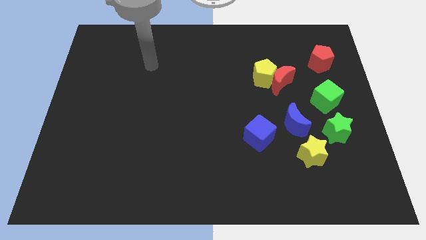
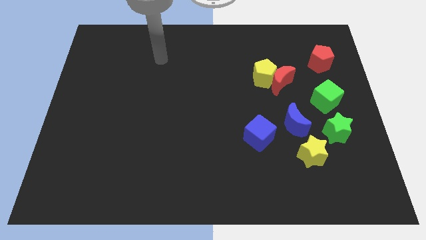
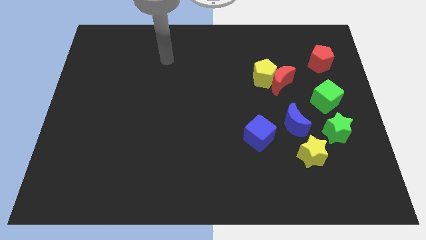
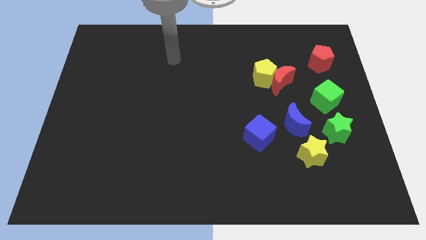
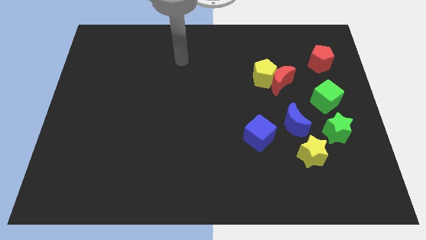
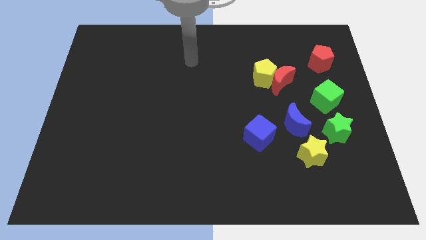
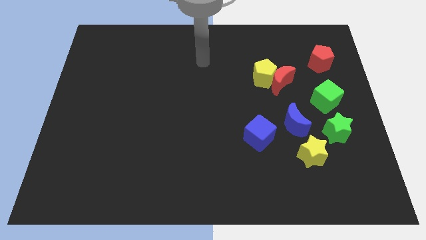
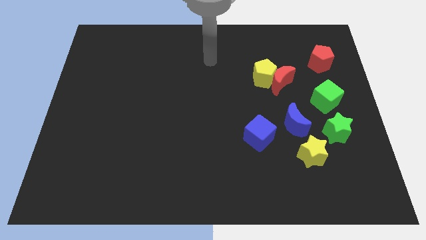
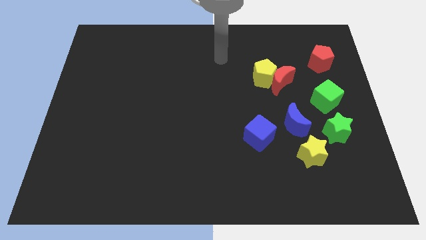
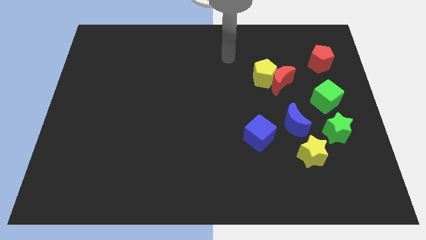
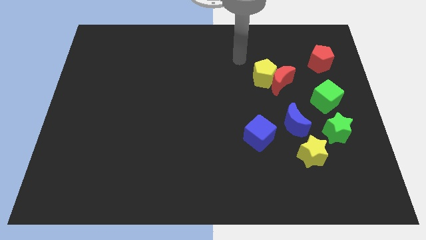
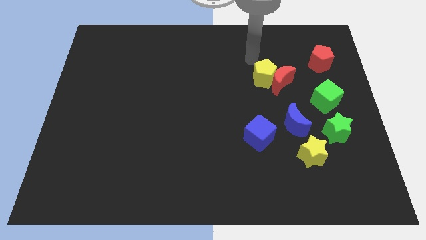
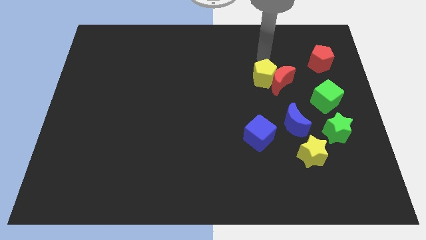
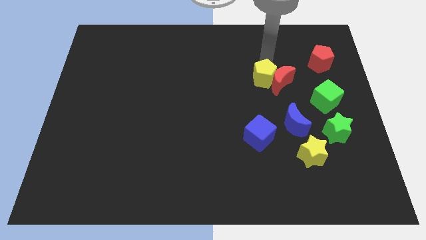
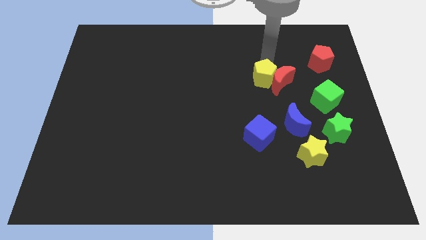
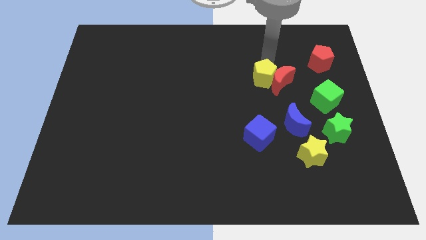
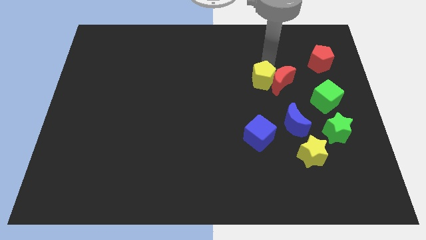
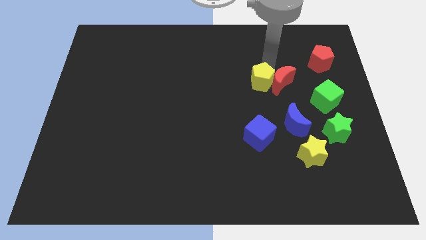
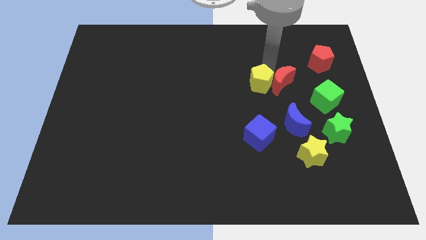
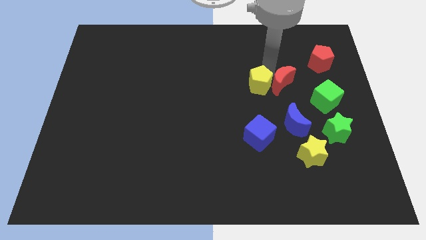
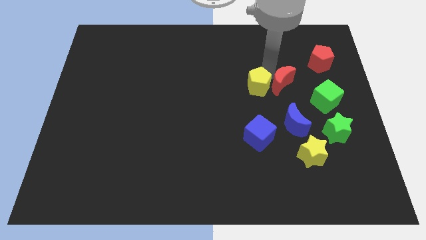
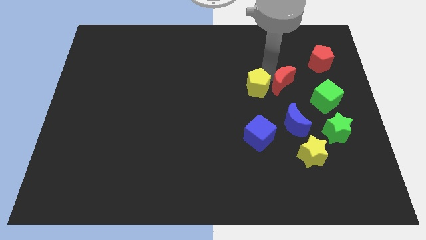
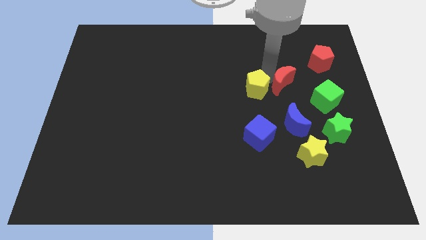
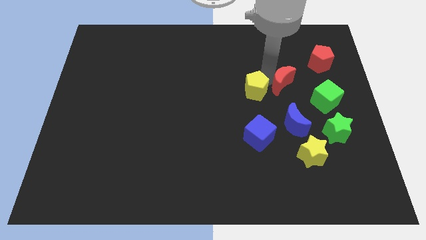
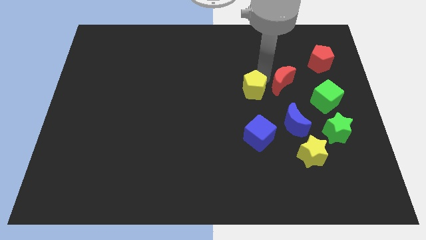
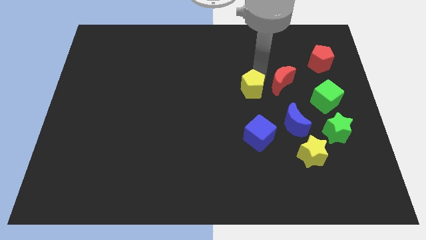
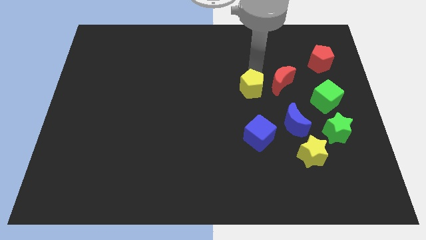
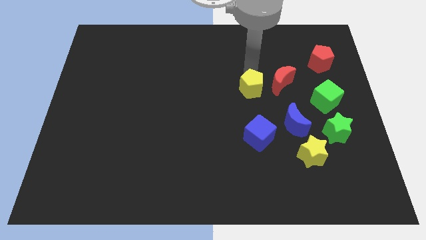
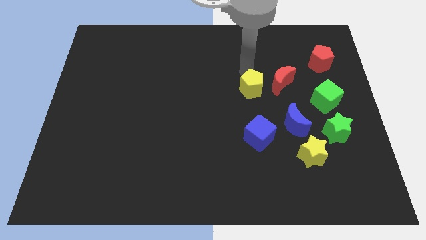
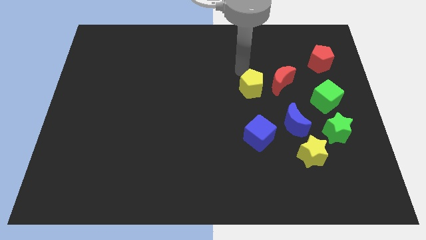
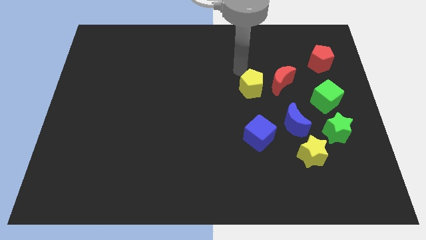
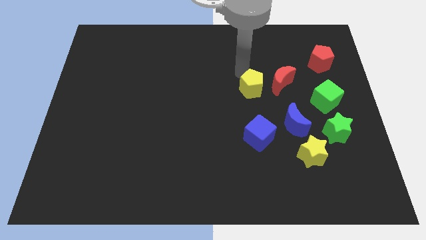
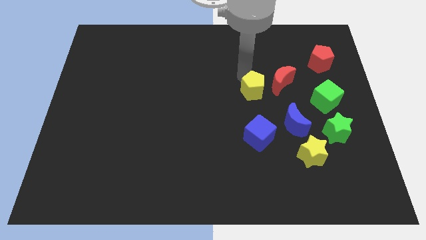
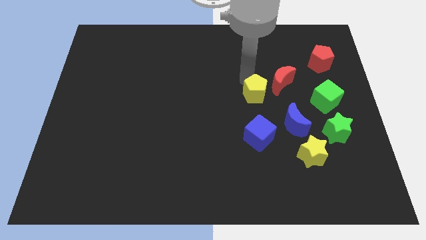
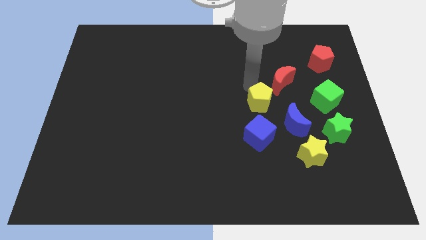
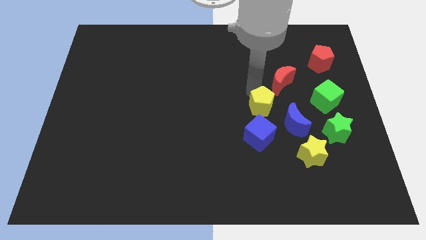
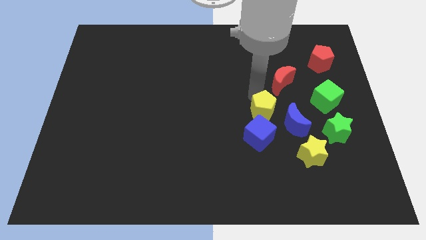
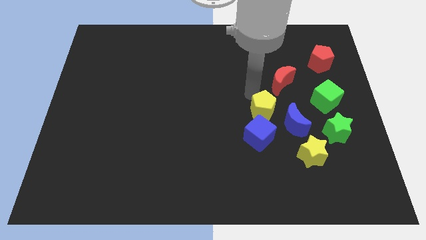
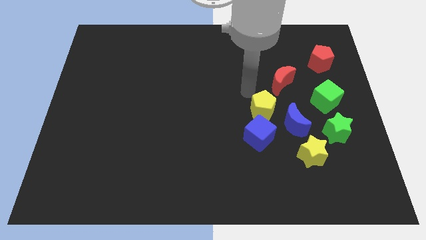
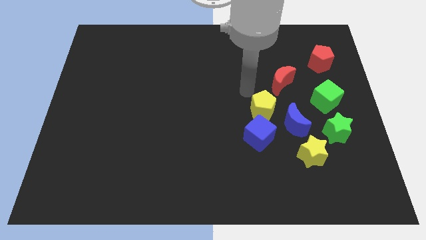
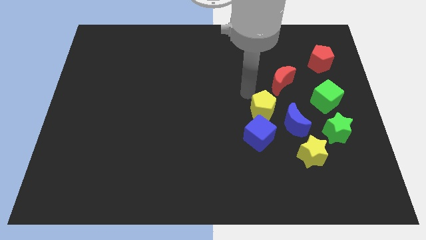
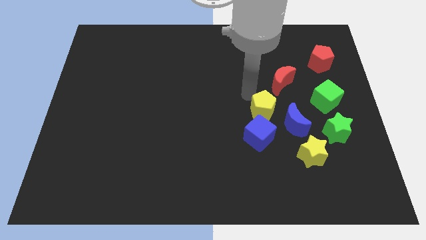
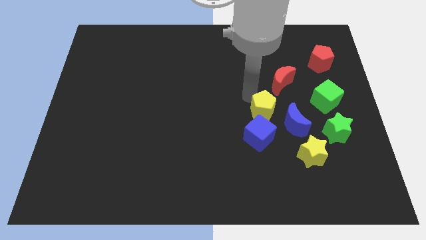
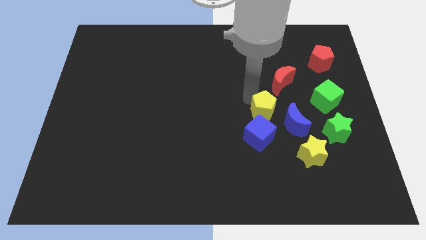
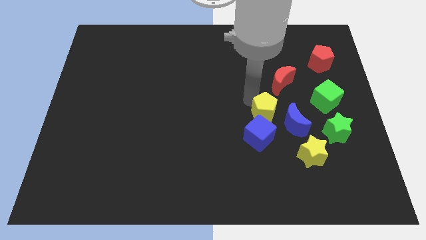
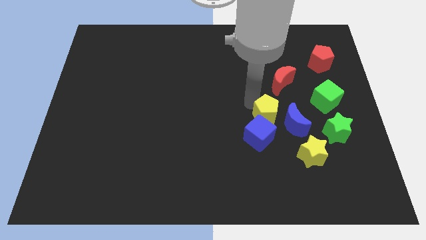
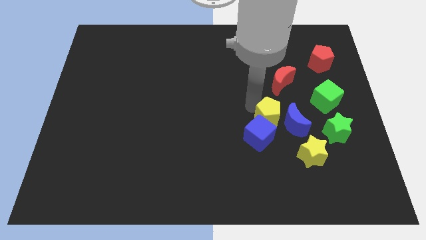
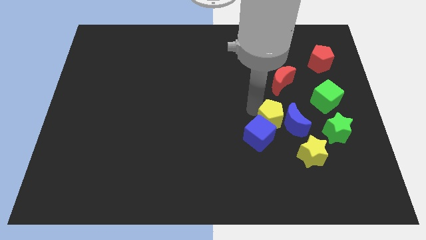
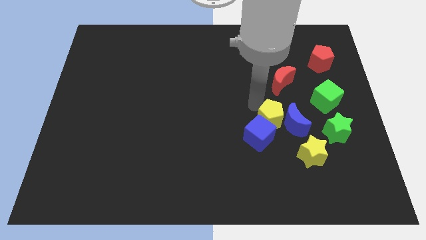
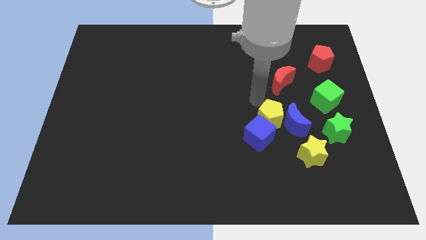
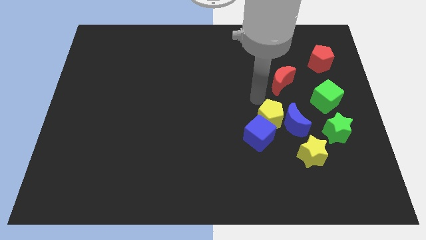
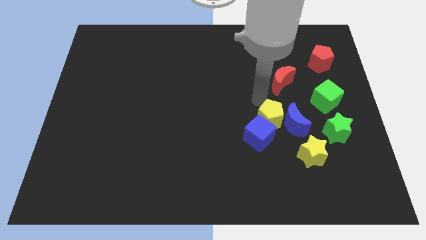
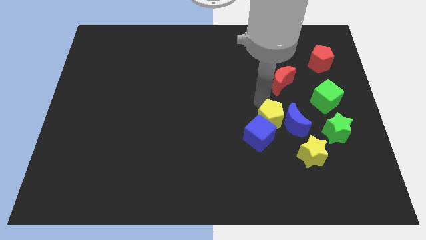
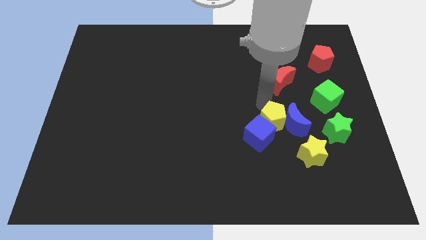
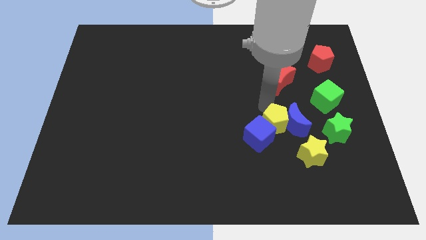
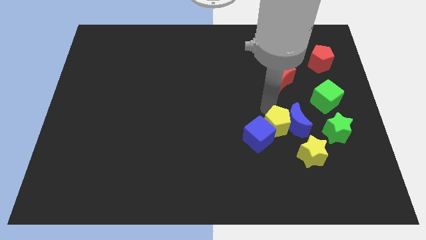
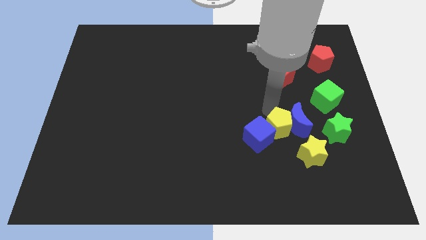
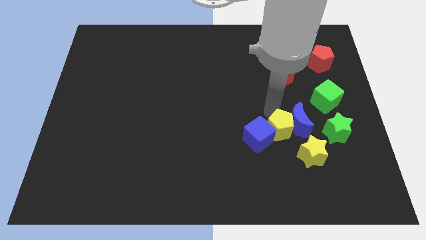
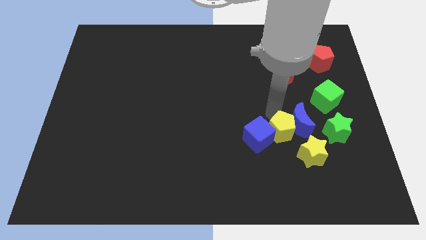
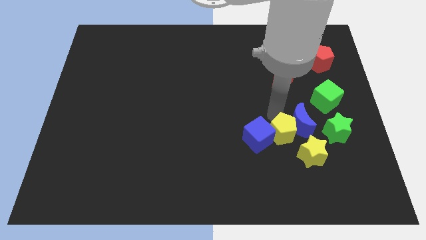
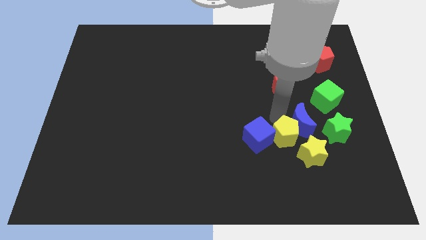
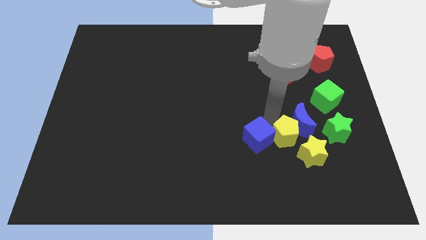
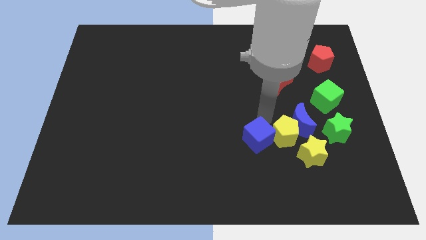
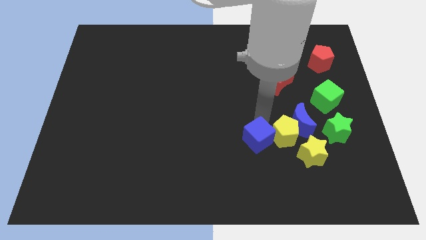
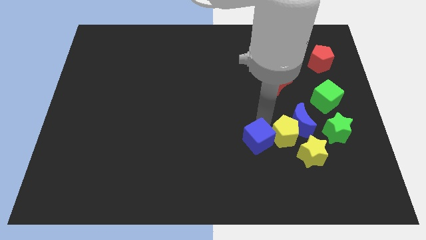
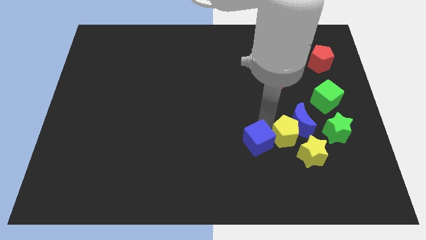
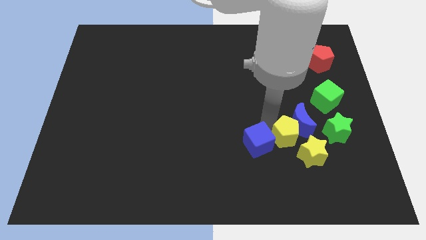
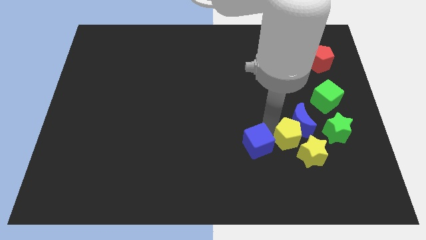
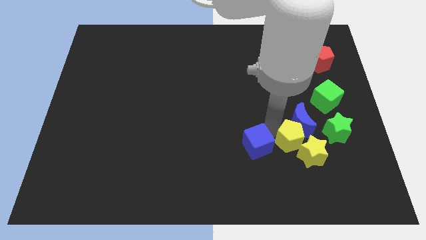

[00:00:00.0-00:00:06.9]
push the yellow pentagon next to the yellow star
